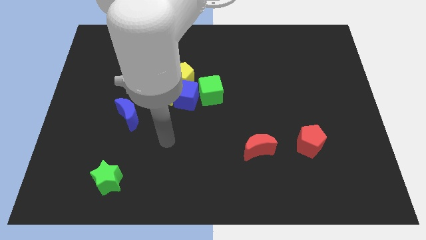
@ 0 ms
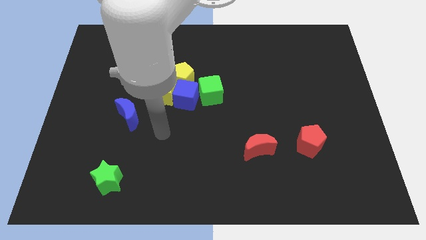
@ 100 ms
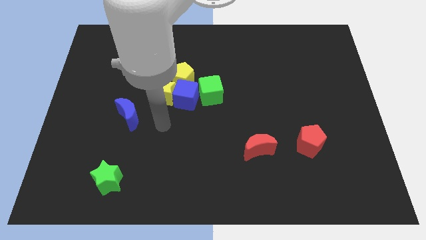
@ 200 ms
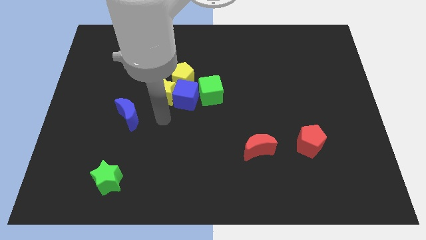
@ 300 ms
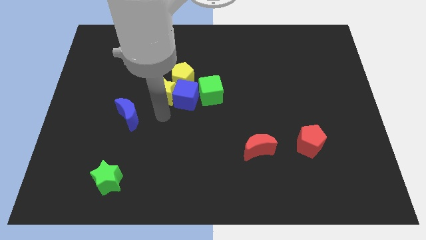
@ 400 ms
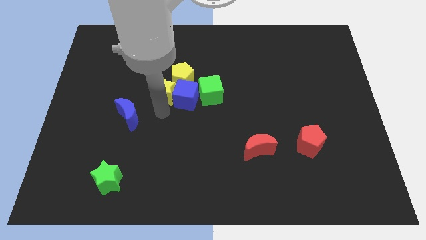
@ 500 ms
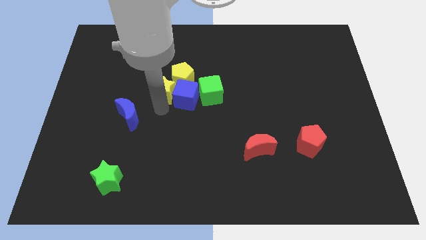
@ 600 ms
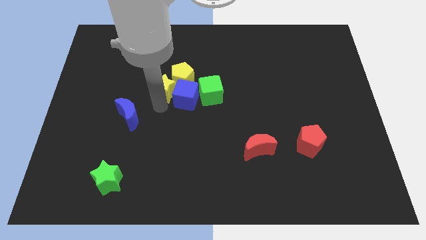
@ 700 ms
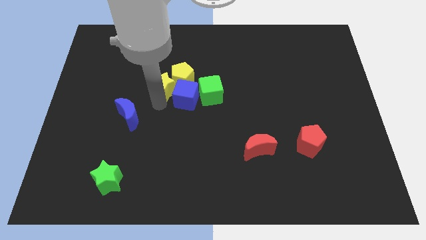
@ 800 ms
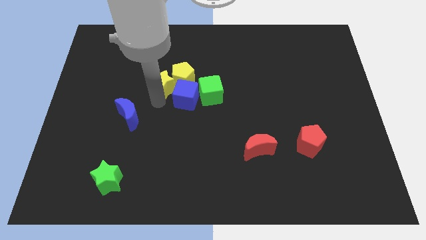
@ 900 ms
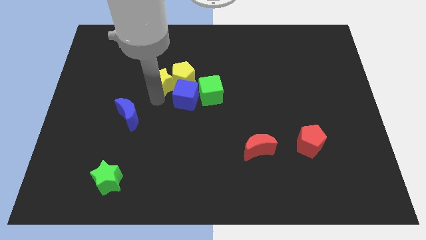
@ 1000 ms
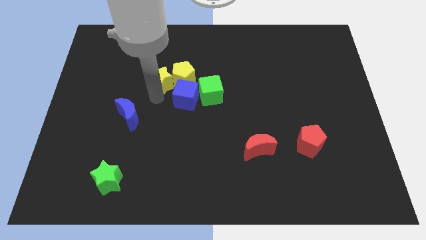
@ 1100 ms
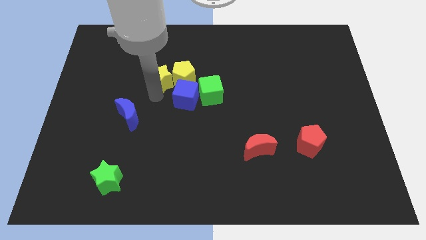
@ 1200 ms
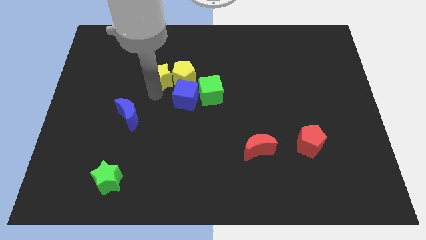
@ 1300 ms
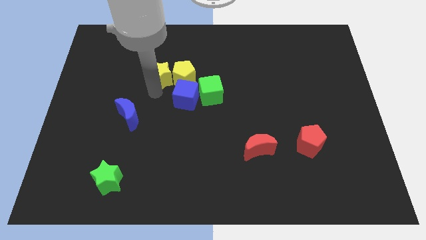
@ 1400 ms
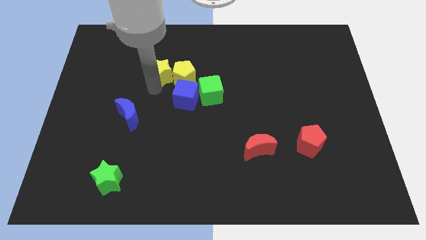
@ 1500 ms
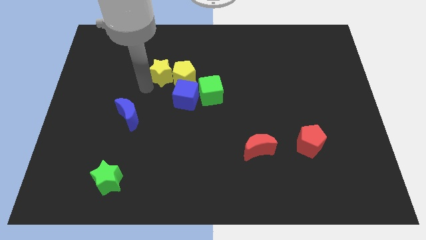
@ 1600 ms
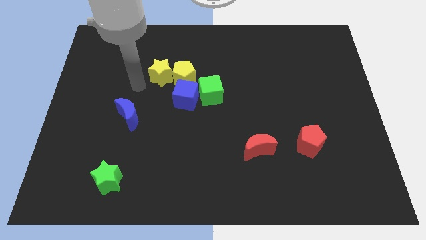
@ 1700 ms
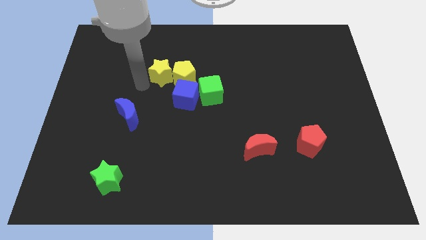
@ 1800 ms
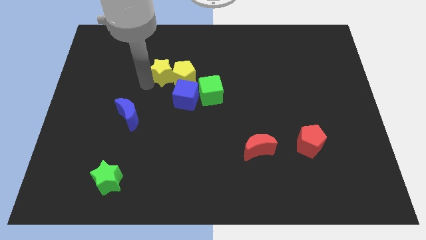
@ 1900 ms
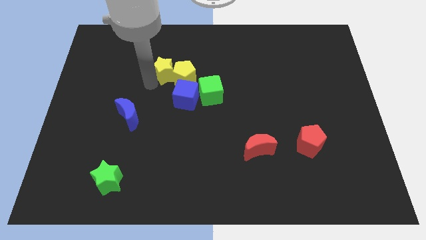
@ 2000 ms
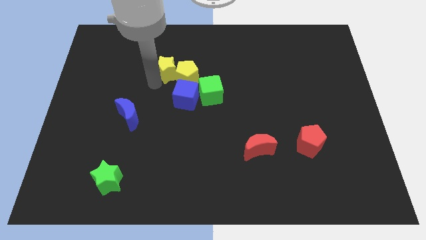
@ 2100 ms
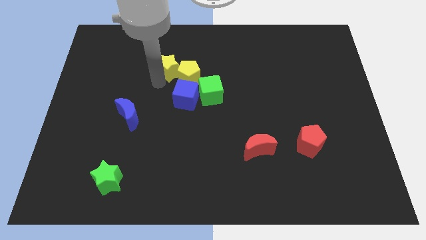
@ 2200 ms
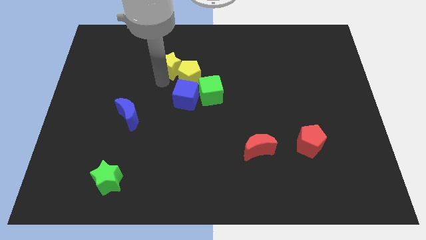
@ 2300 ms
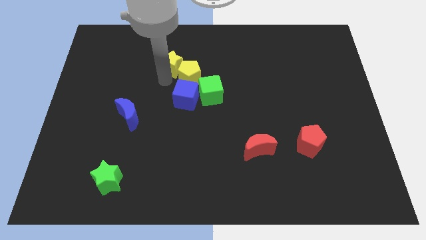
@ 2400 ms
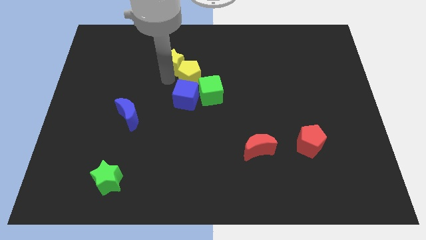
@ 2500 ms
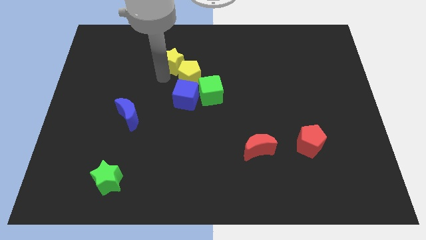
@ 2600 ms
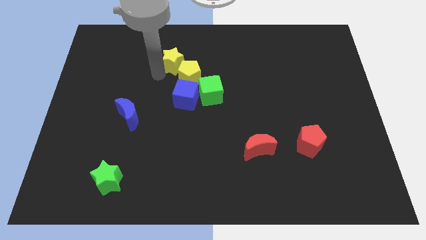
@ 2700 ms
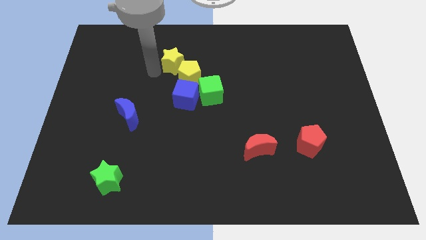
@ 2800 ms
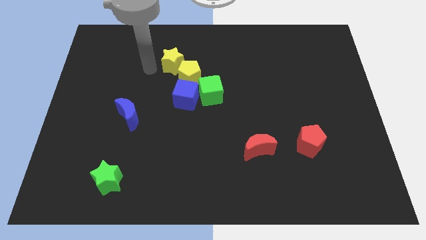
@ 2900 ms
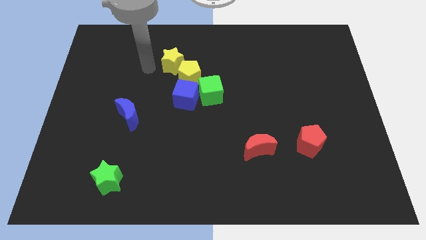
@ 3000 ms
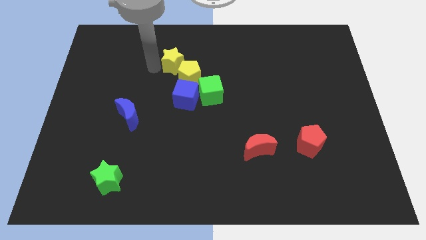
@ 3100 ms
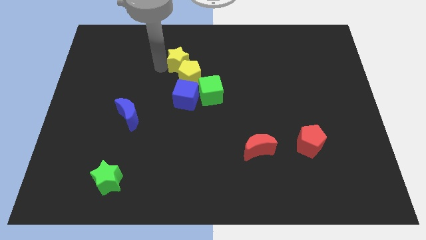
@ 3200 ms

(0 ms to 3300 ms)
slightly move the yellow star upwards and to the right

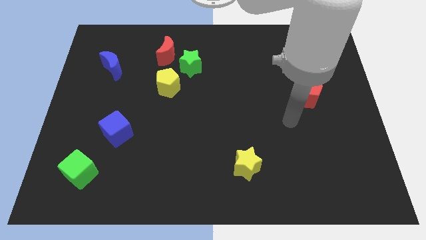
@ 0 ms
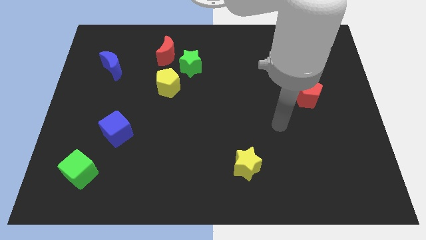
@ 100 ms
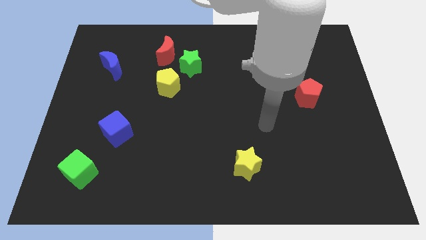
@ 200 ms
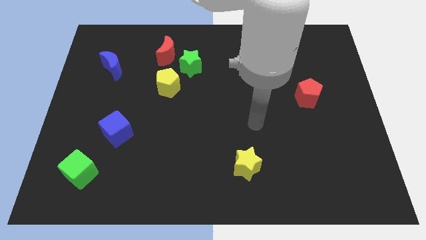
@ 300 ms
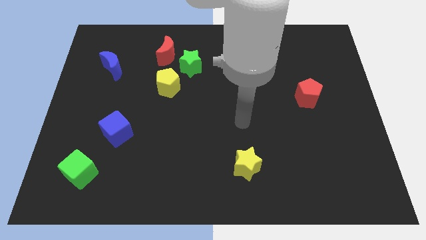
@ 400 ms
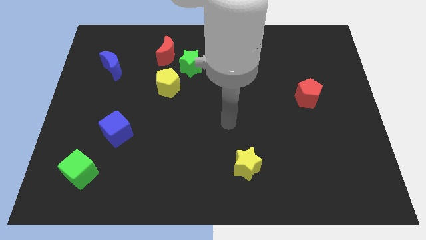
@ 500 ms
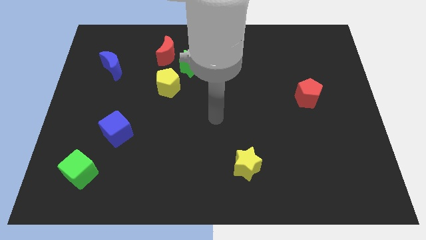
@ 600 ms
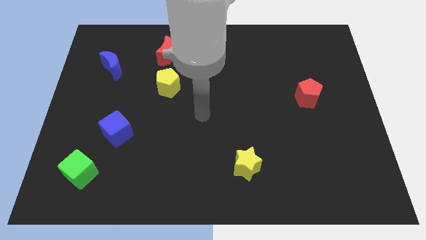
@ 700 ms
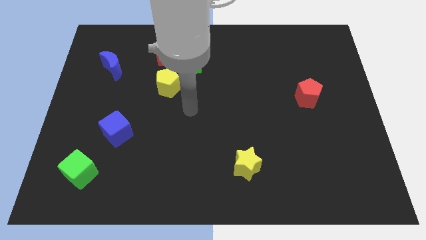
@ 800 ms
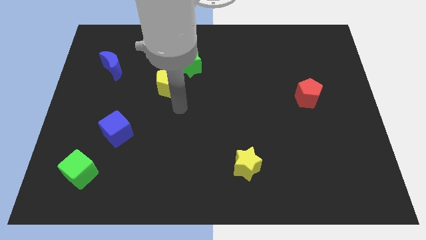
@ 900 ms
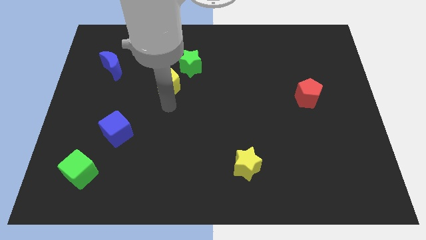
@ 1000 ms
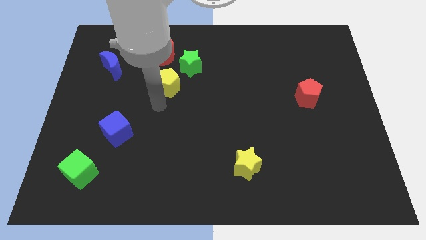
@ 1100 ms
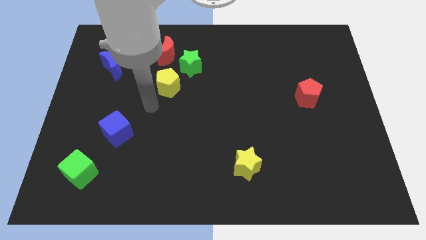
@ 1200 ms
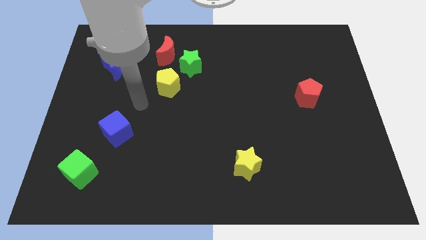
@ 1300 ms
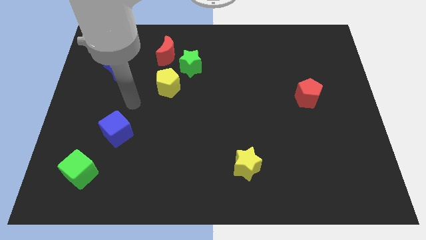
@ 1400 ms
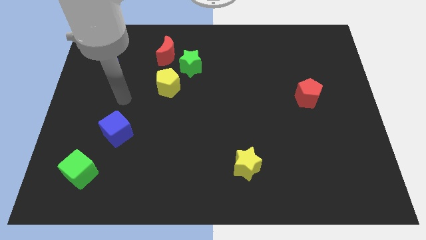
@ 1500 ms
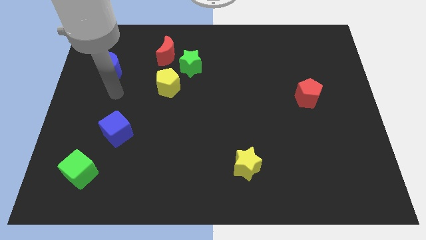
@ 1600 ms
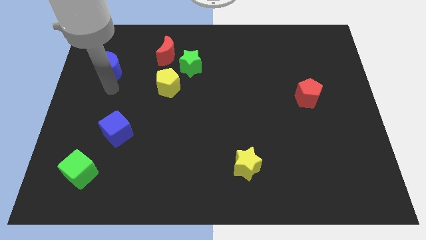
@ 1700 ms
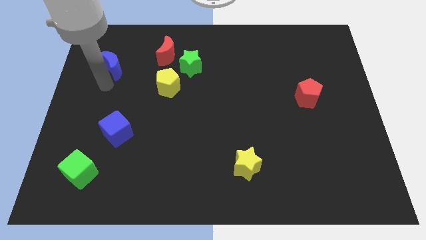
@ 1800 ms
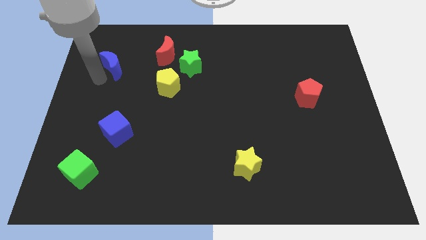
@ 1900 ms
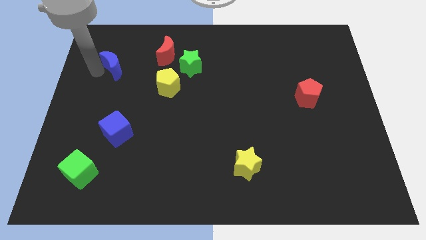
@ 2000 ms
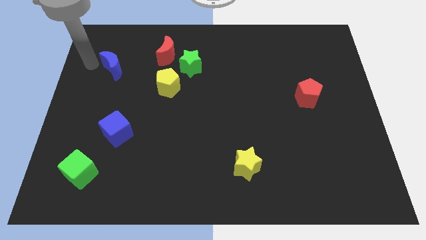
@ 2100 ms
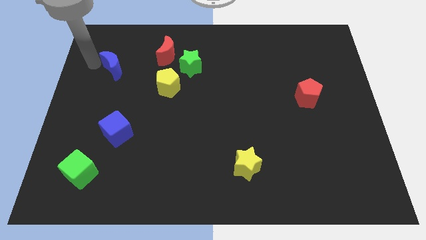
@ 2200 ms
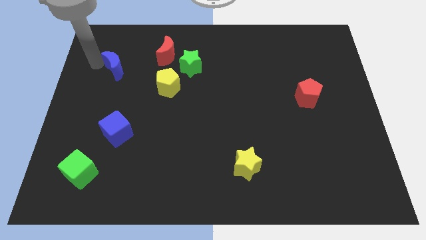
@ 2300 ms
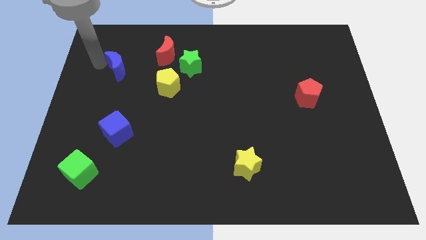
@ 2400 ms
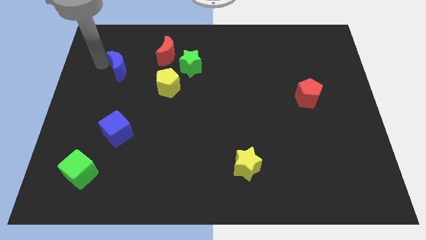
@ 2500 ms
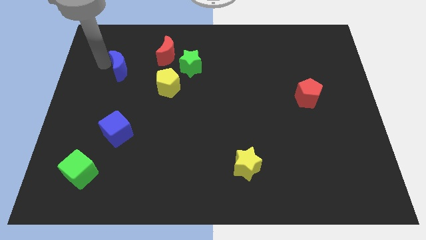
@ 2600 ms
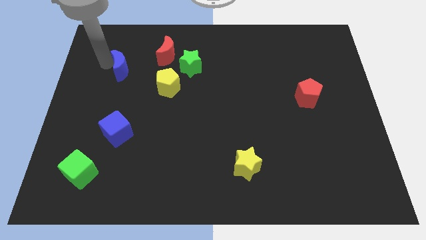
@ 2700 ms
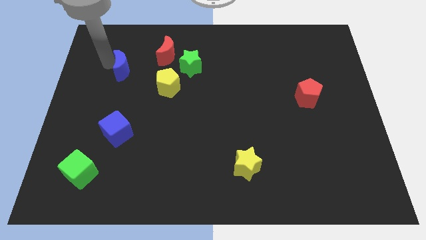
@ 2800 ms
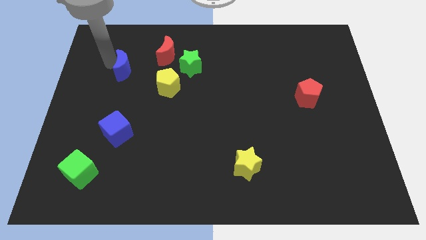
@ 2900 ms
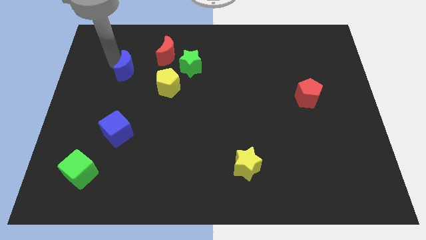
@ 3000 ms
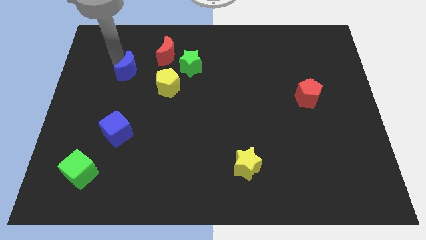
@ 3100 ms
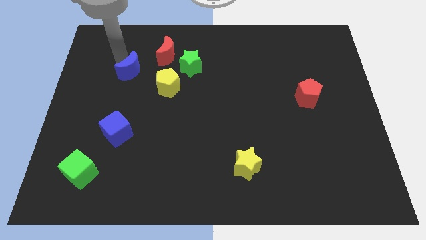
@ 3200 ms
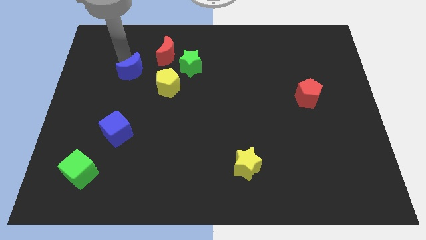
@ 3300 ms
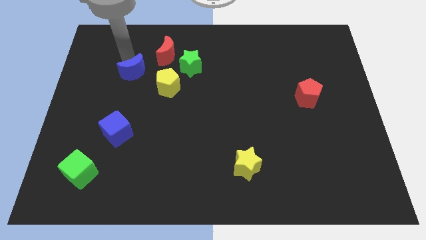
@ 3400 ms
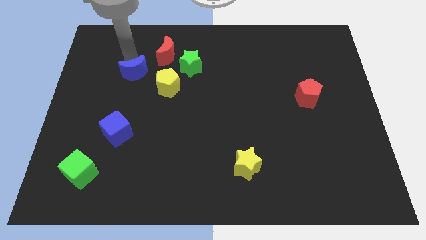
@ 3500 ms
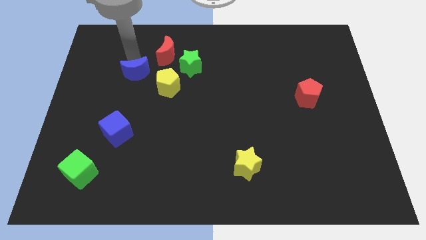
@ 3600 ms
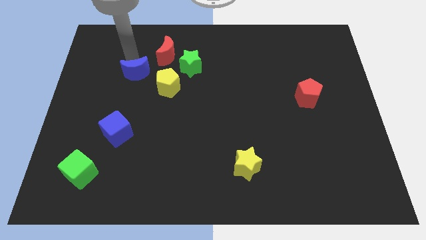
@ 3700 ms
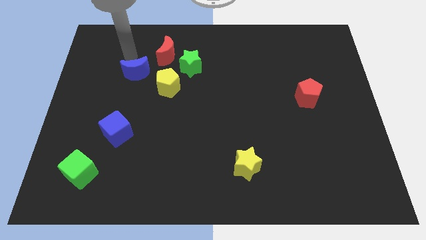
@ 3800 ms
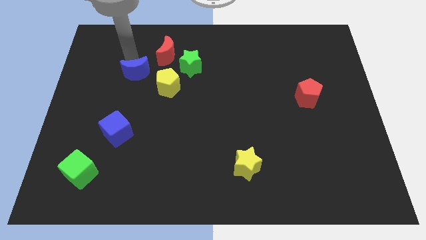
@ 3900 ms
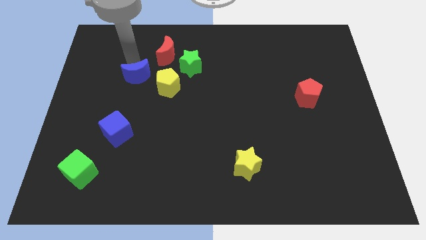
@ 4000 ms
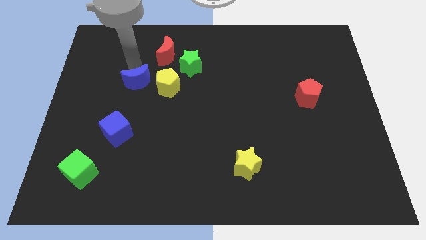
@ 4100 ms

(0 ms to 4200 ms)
push the blue moon downwards and to the right diagonally a little

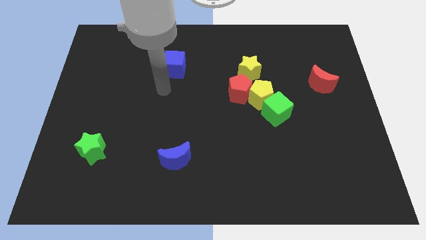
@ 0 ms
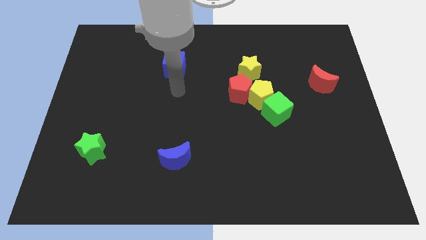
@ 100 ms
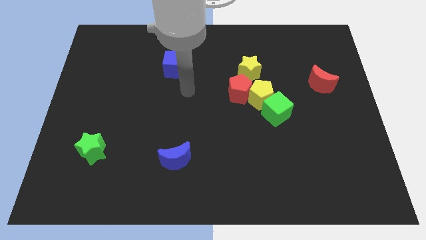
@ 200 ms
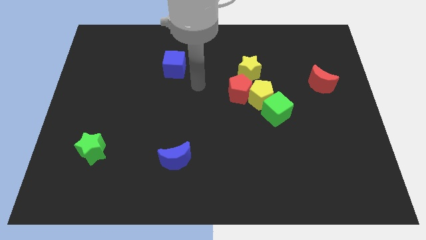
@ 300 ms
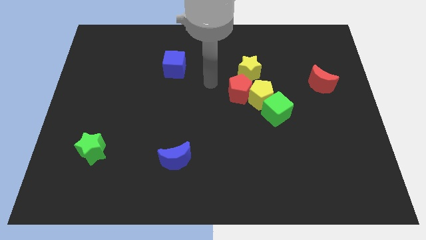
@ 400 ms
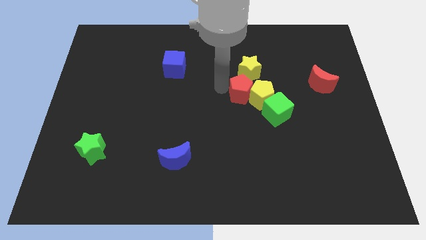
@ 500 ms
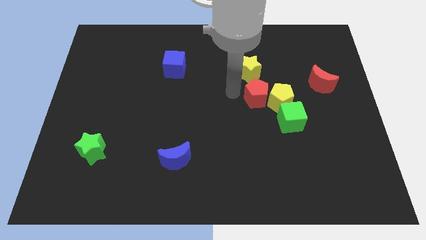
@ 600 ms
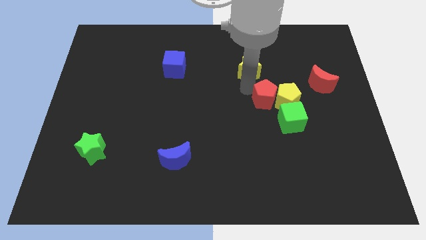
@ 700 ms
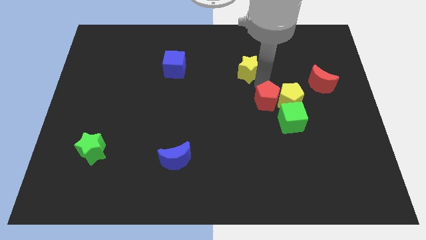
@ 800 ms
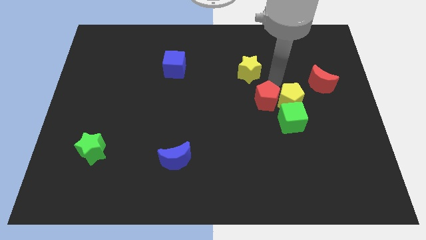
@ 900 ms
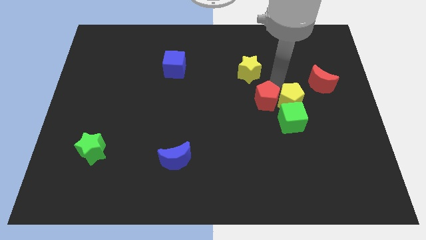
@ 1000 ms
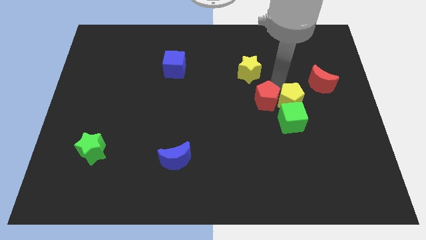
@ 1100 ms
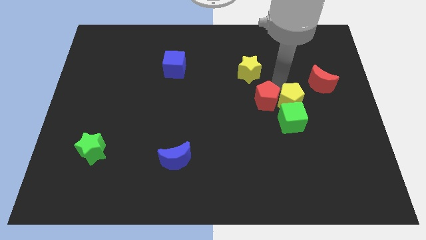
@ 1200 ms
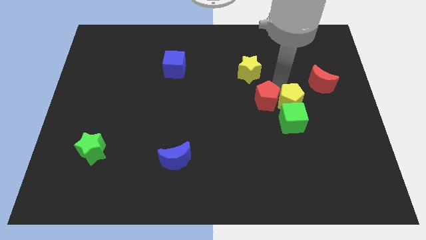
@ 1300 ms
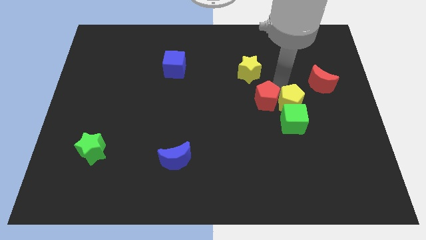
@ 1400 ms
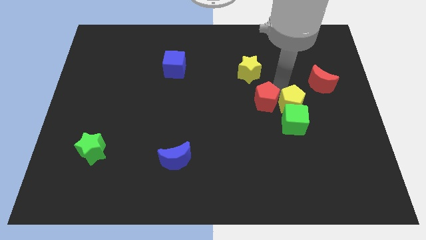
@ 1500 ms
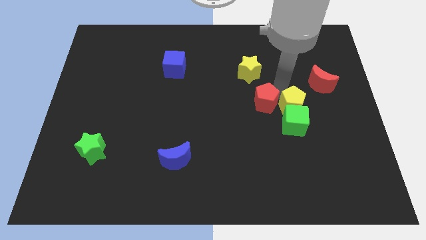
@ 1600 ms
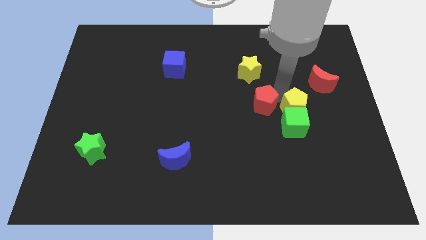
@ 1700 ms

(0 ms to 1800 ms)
push the yellow pentagon diagonally down and to the right a little bit
